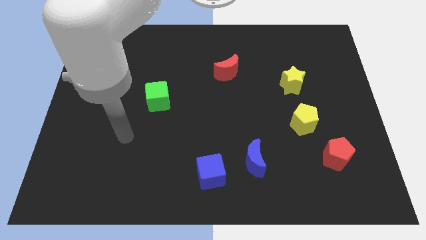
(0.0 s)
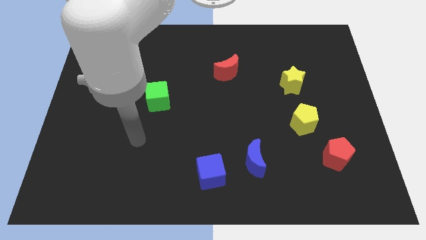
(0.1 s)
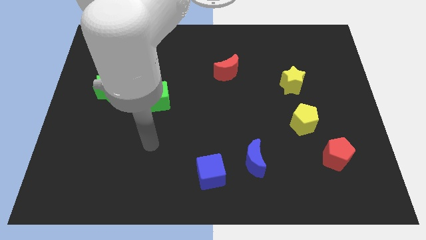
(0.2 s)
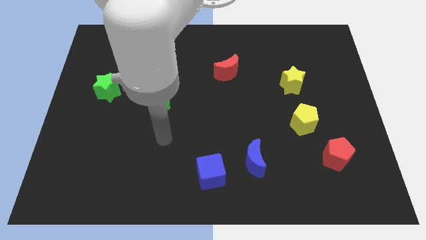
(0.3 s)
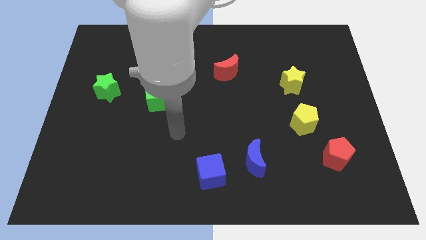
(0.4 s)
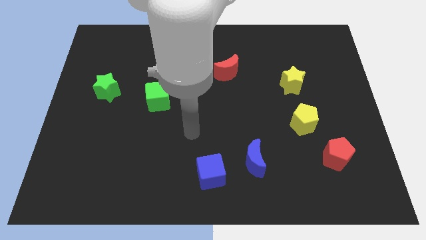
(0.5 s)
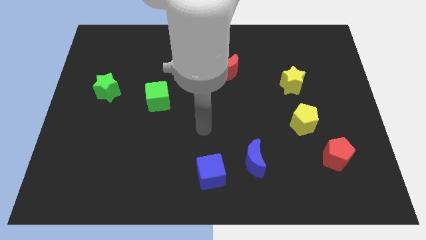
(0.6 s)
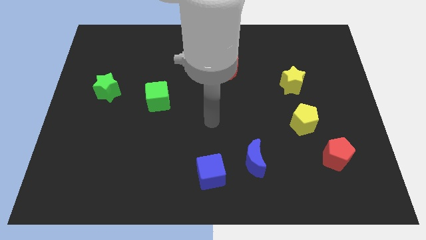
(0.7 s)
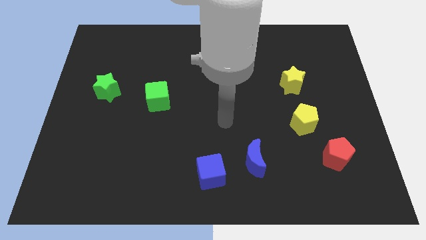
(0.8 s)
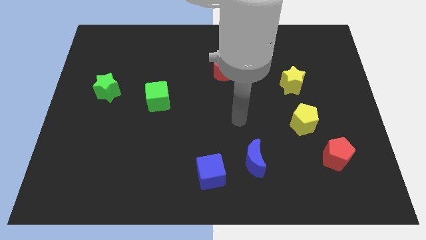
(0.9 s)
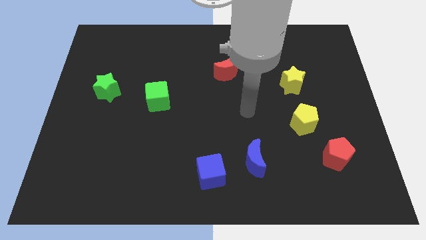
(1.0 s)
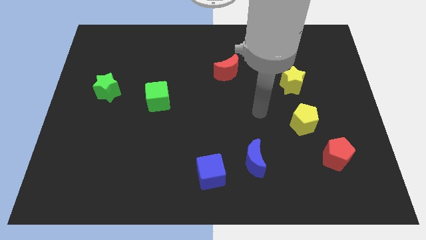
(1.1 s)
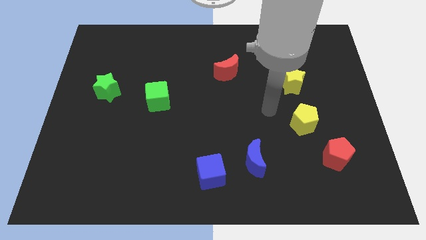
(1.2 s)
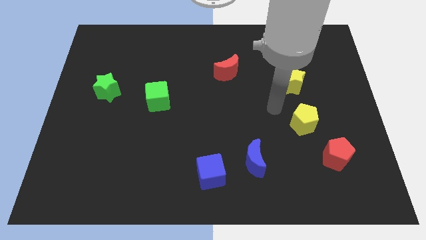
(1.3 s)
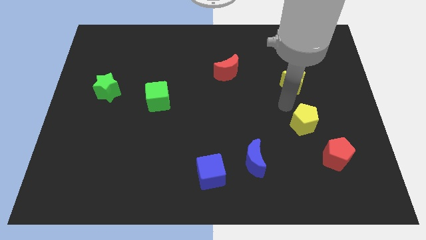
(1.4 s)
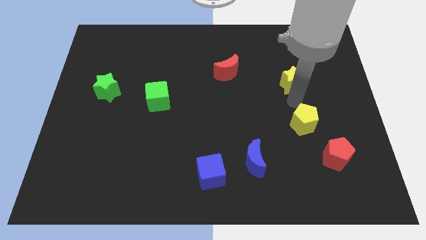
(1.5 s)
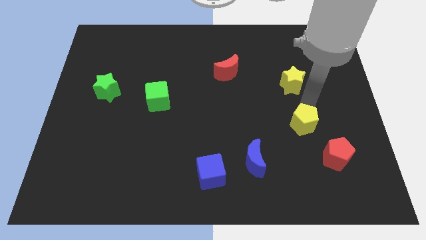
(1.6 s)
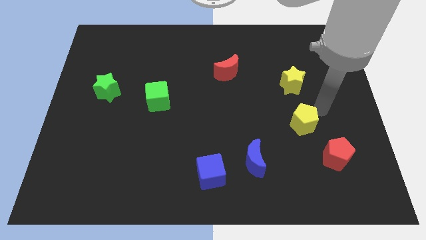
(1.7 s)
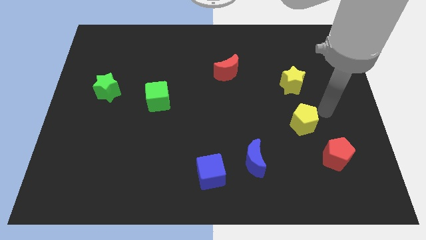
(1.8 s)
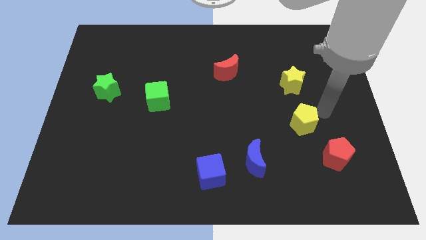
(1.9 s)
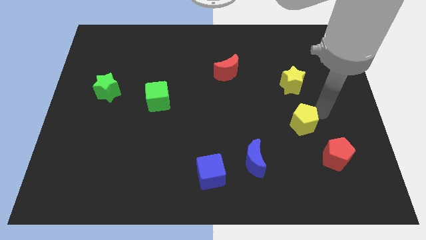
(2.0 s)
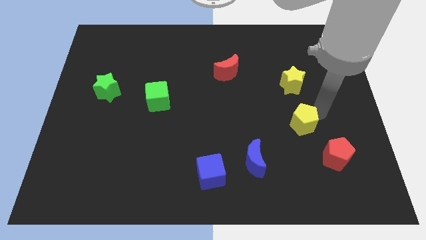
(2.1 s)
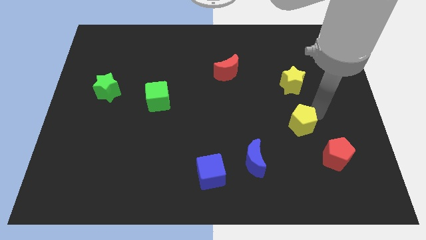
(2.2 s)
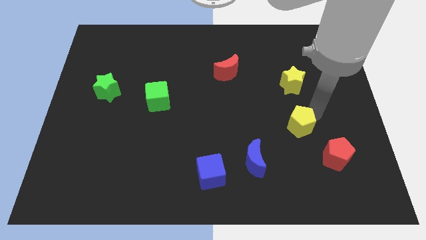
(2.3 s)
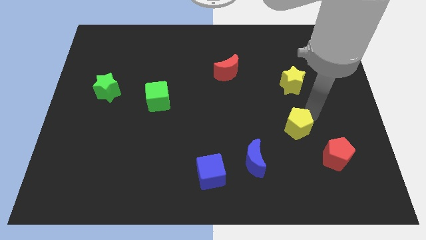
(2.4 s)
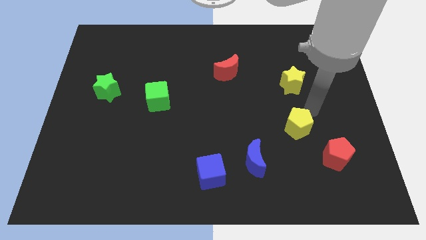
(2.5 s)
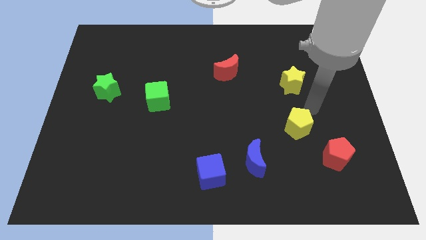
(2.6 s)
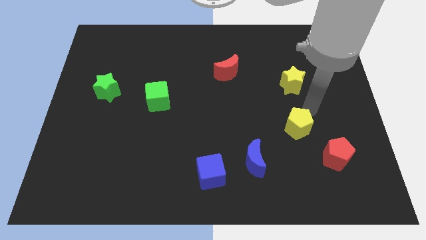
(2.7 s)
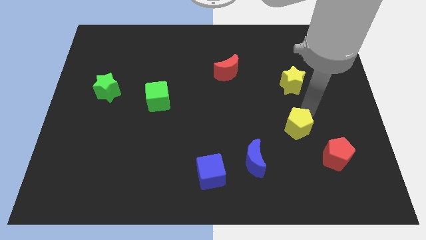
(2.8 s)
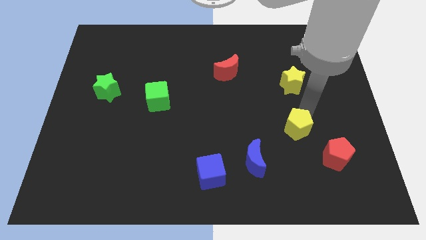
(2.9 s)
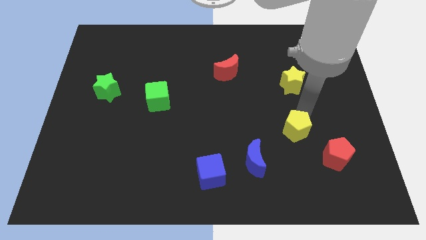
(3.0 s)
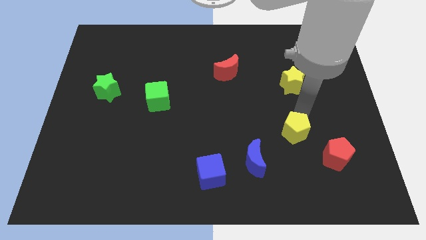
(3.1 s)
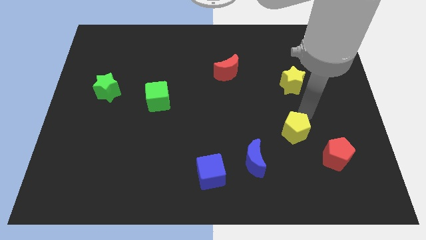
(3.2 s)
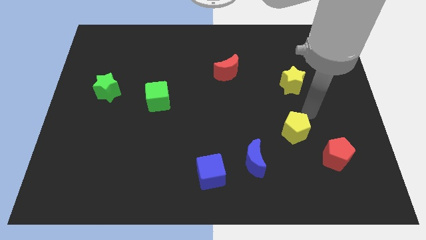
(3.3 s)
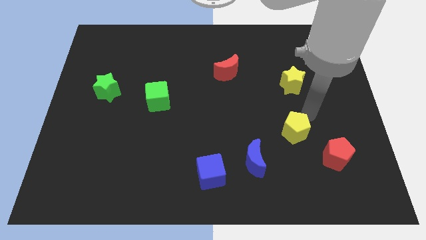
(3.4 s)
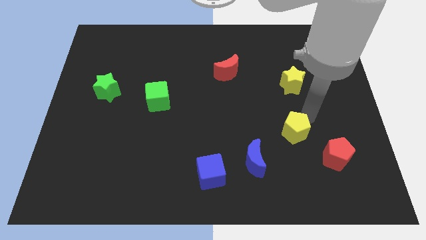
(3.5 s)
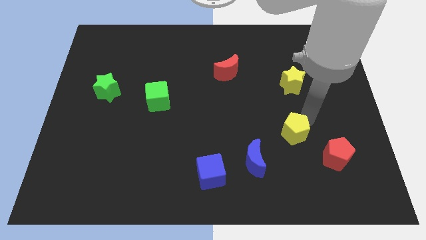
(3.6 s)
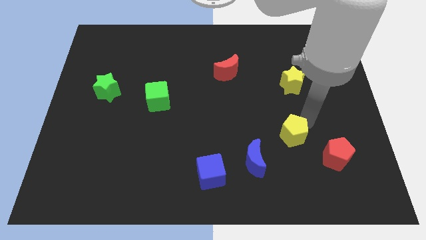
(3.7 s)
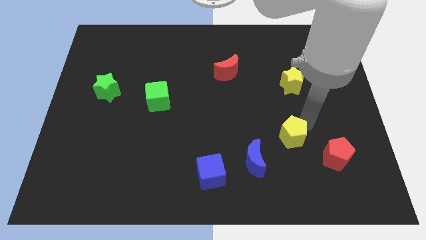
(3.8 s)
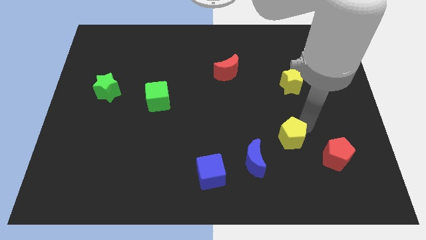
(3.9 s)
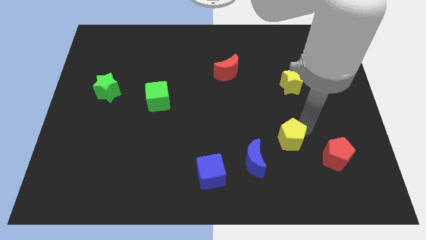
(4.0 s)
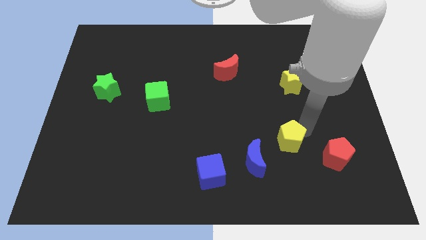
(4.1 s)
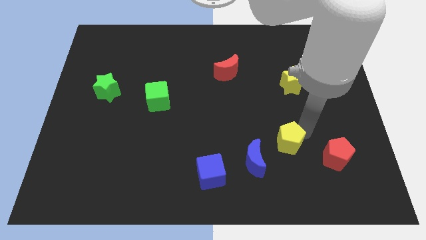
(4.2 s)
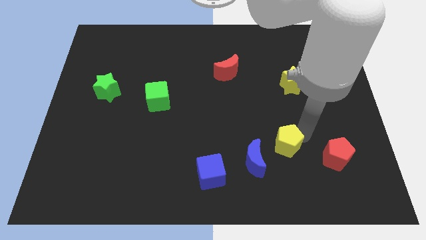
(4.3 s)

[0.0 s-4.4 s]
slide the yellow pentagon down and left diagonally a little

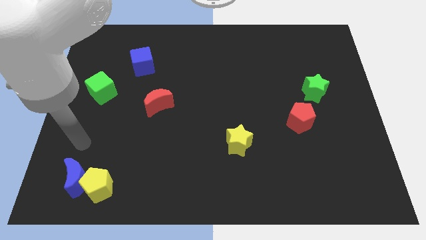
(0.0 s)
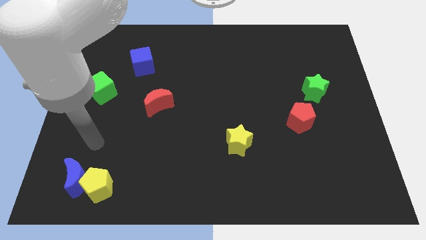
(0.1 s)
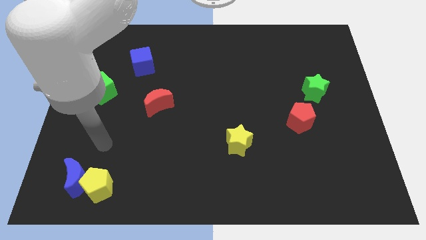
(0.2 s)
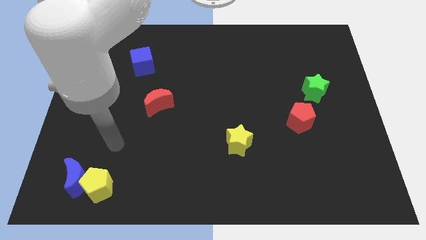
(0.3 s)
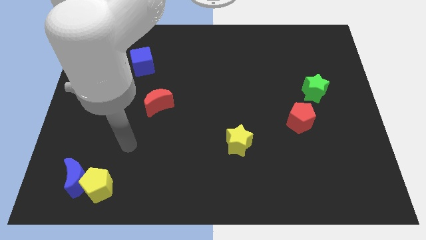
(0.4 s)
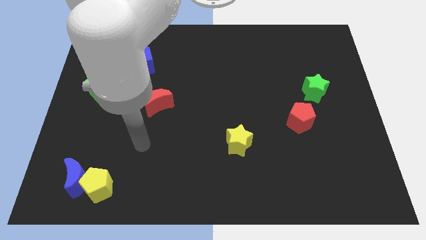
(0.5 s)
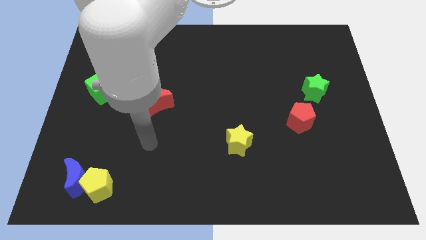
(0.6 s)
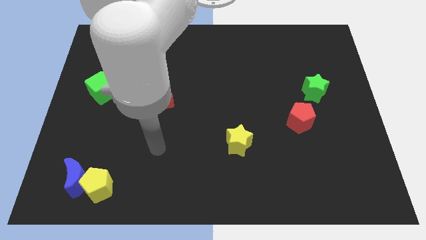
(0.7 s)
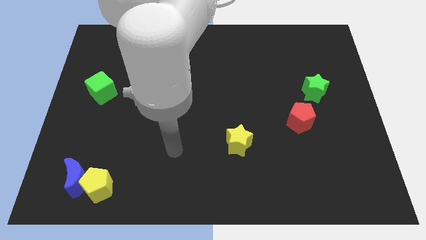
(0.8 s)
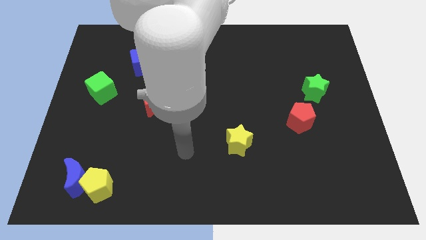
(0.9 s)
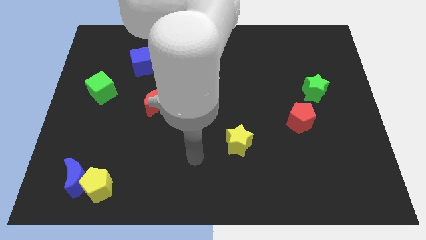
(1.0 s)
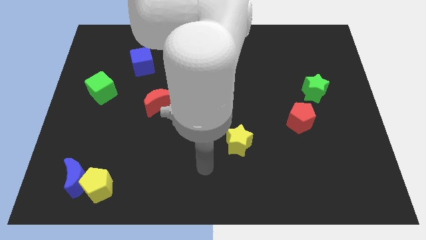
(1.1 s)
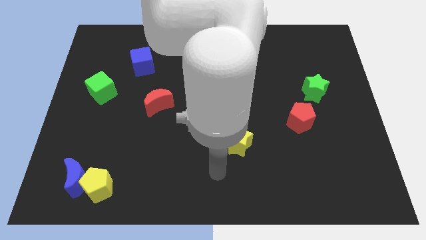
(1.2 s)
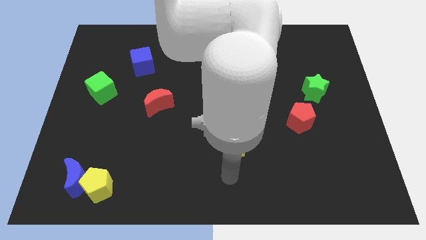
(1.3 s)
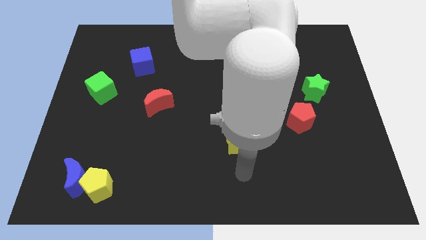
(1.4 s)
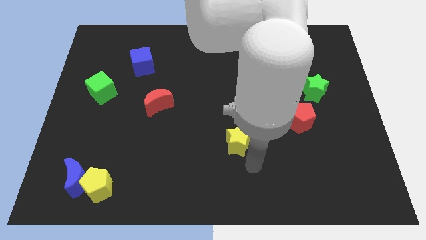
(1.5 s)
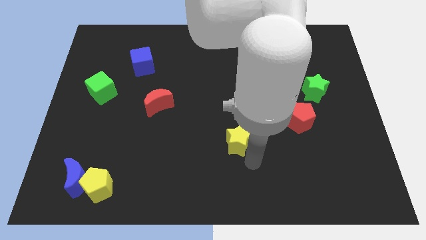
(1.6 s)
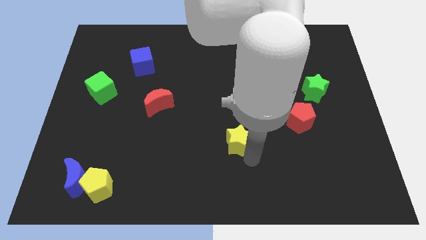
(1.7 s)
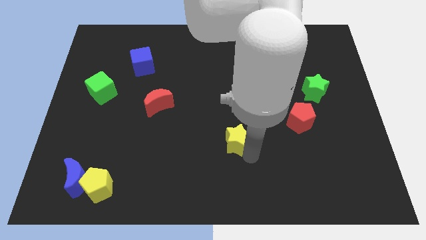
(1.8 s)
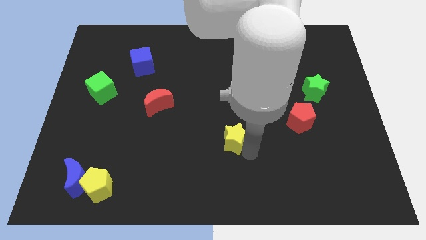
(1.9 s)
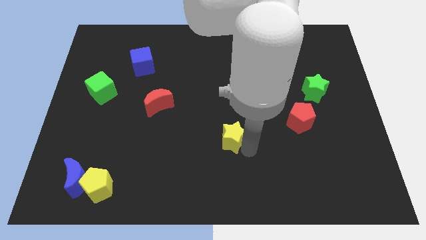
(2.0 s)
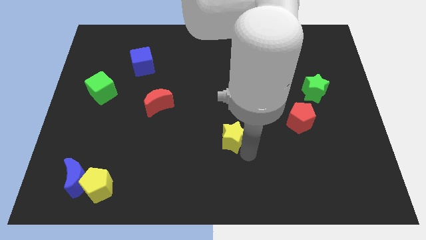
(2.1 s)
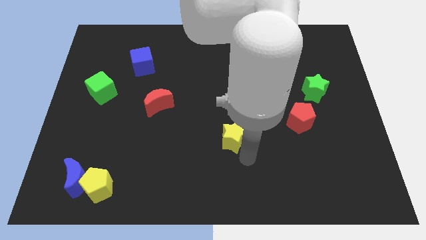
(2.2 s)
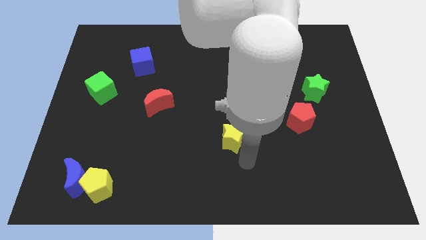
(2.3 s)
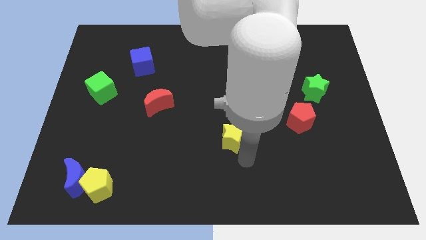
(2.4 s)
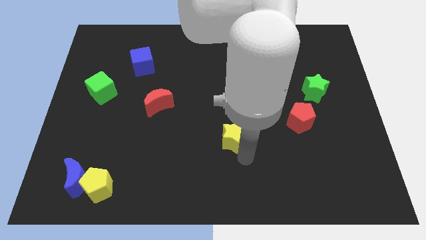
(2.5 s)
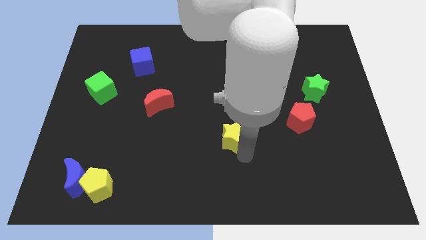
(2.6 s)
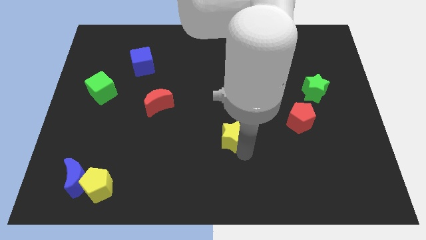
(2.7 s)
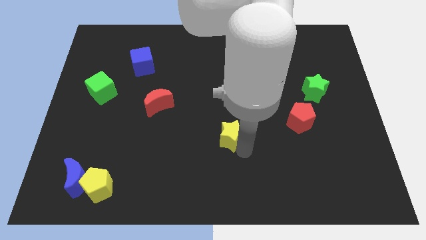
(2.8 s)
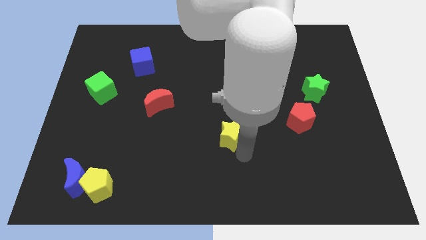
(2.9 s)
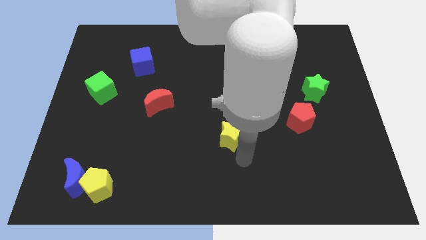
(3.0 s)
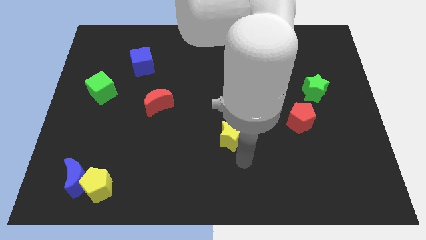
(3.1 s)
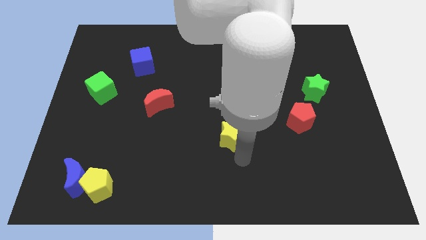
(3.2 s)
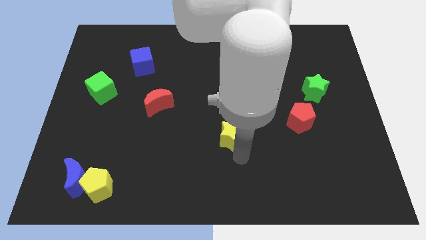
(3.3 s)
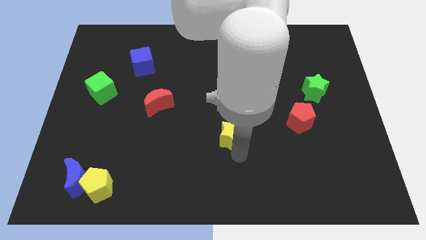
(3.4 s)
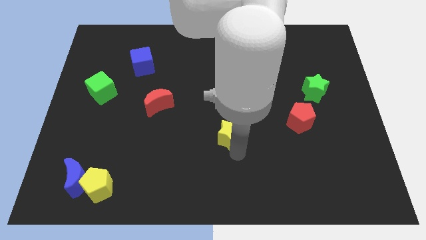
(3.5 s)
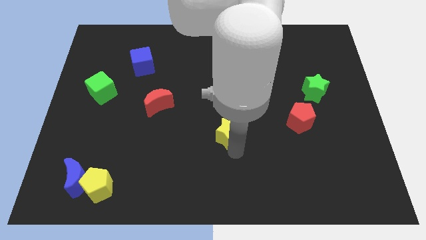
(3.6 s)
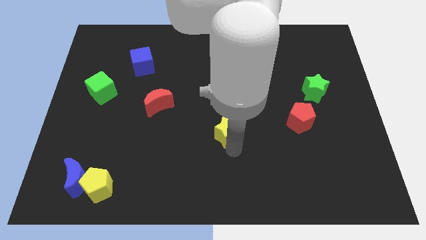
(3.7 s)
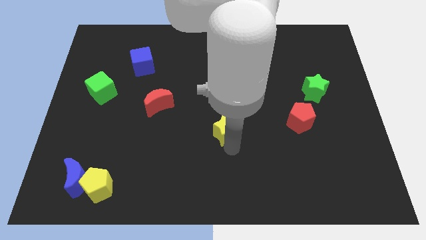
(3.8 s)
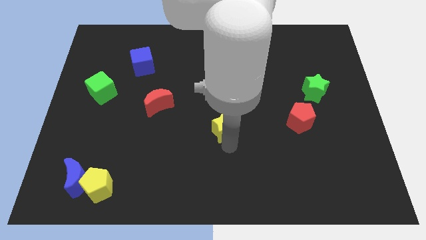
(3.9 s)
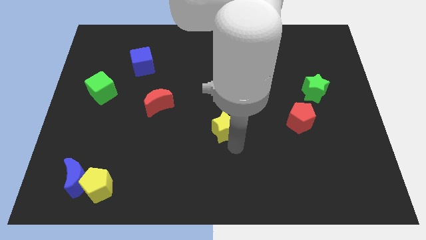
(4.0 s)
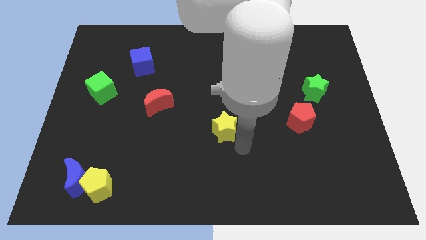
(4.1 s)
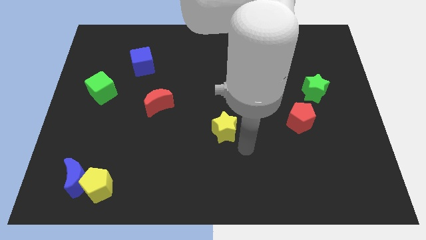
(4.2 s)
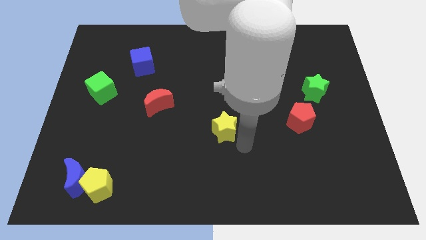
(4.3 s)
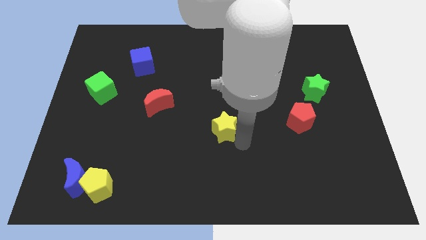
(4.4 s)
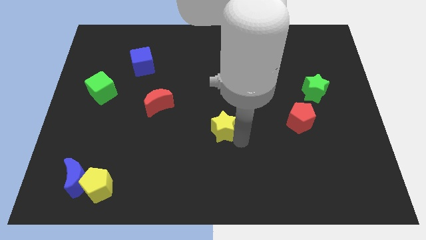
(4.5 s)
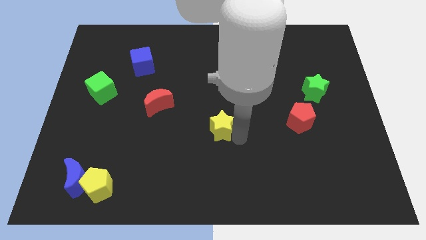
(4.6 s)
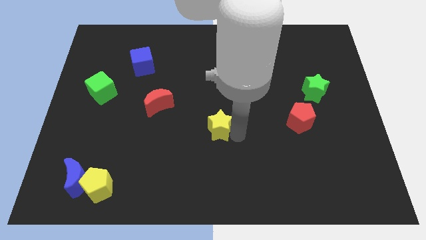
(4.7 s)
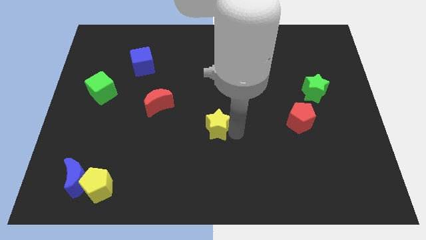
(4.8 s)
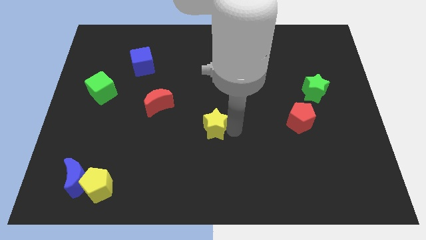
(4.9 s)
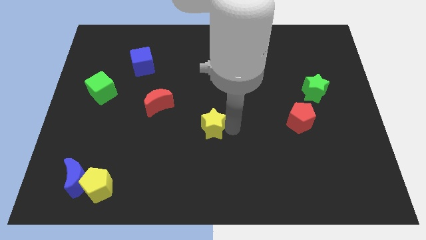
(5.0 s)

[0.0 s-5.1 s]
move the yellow star slightly diagonally up and left
